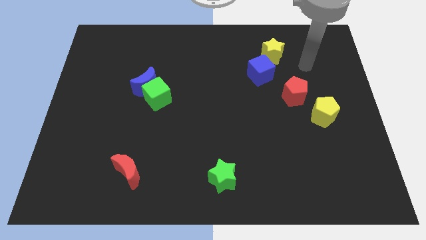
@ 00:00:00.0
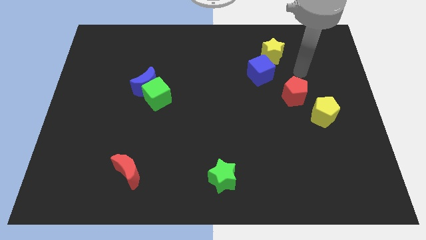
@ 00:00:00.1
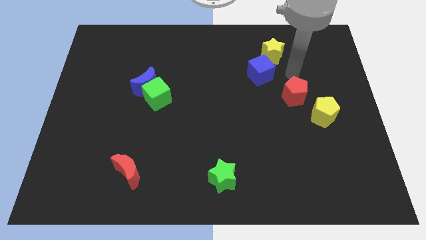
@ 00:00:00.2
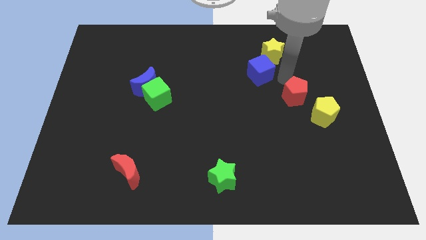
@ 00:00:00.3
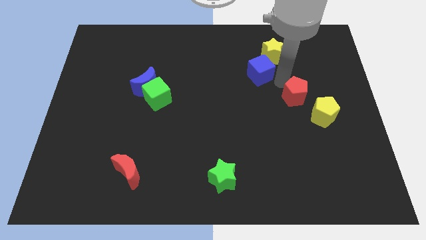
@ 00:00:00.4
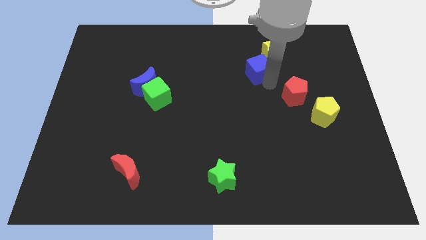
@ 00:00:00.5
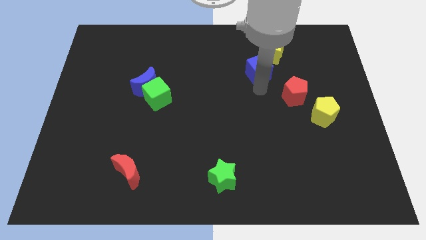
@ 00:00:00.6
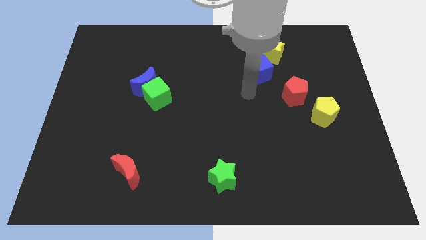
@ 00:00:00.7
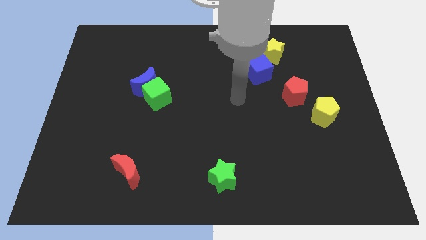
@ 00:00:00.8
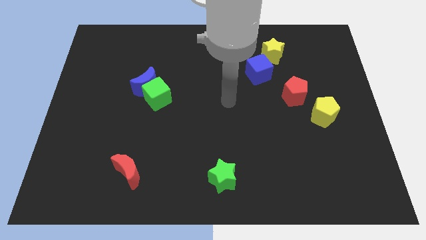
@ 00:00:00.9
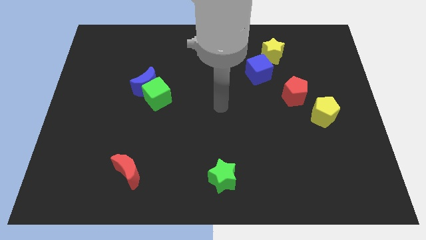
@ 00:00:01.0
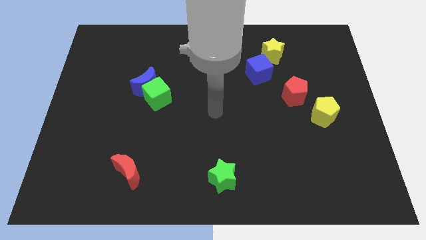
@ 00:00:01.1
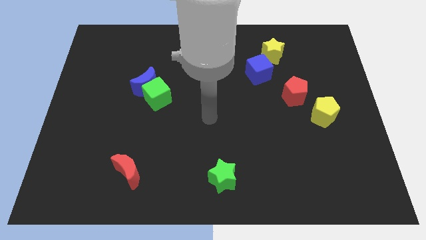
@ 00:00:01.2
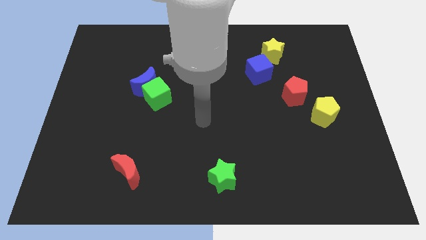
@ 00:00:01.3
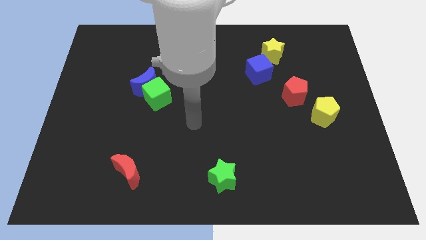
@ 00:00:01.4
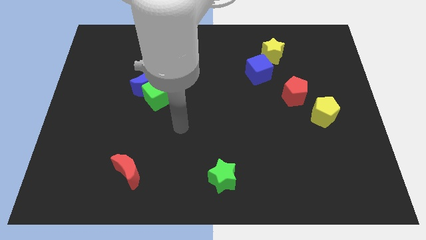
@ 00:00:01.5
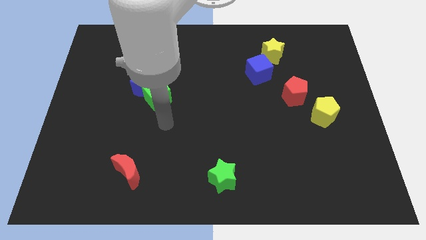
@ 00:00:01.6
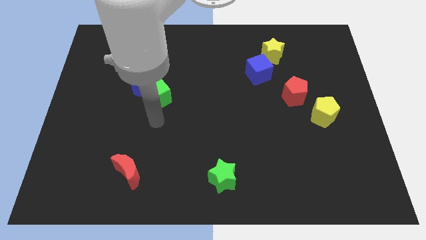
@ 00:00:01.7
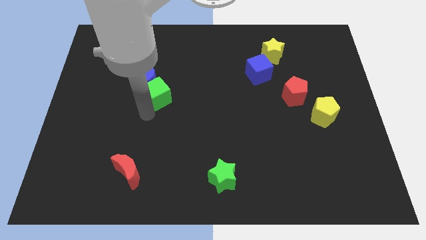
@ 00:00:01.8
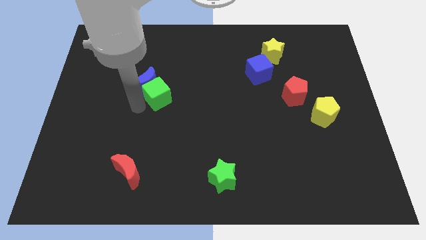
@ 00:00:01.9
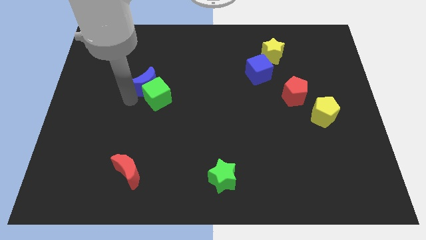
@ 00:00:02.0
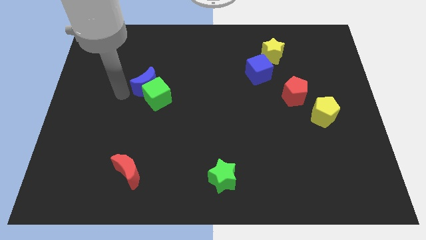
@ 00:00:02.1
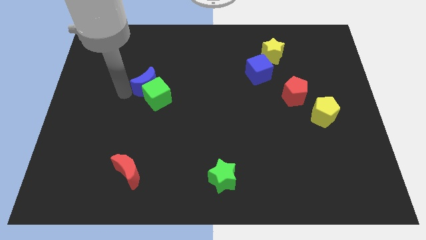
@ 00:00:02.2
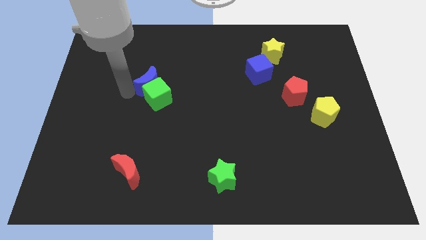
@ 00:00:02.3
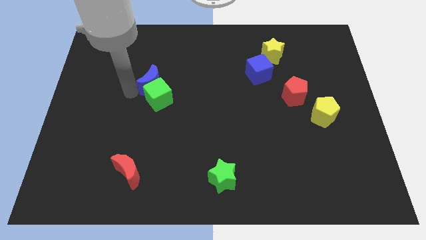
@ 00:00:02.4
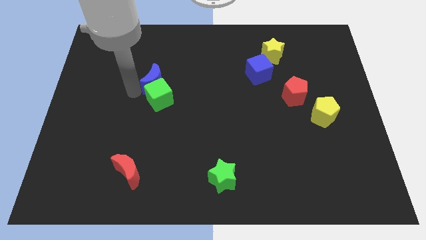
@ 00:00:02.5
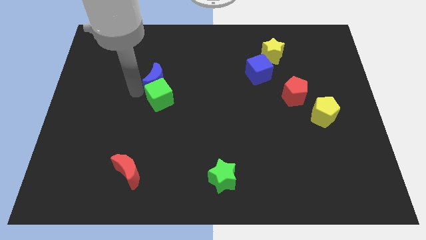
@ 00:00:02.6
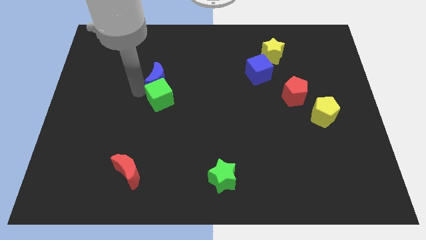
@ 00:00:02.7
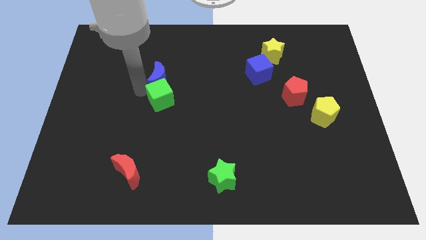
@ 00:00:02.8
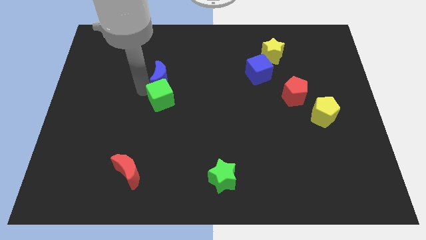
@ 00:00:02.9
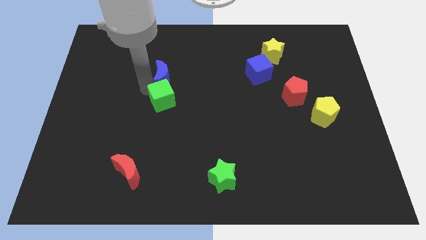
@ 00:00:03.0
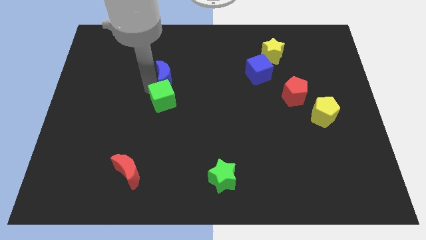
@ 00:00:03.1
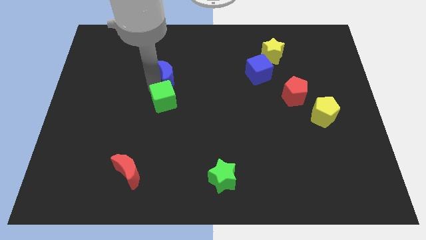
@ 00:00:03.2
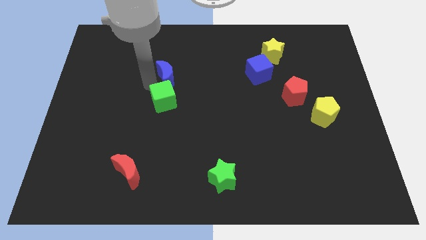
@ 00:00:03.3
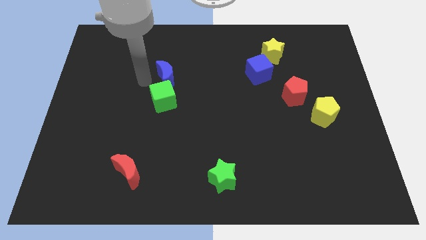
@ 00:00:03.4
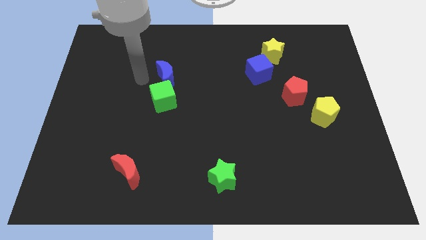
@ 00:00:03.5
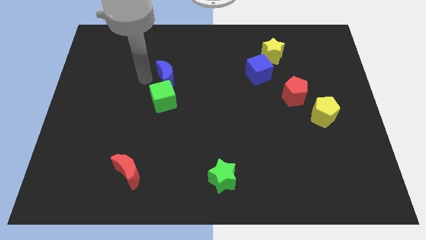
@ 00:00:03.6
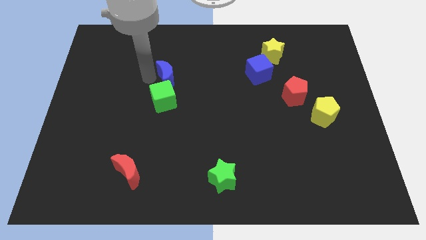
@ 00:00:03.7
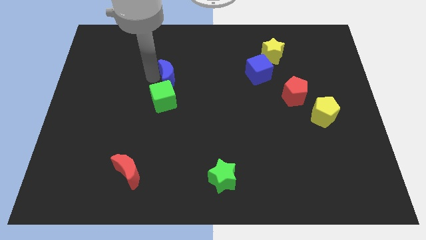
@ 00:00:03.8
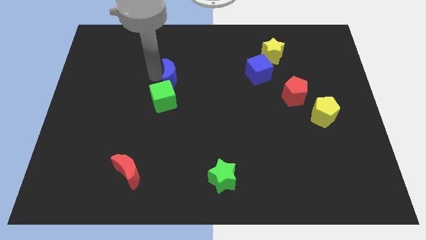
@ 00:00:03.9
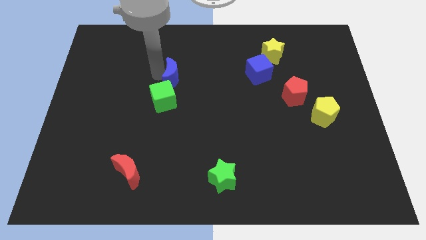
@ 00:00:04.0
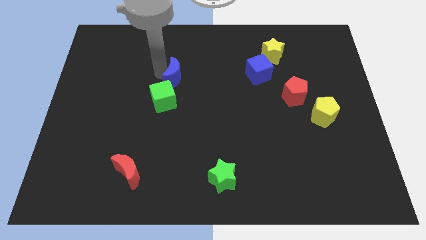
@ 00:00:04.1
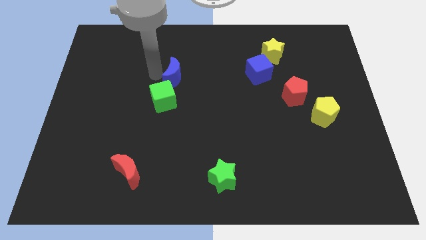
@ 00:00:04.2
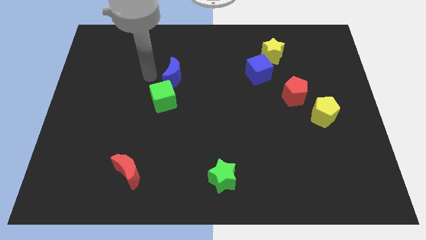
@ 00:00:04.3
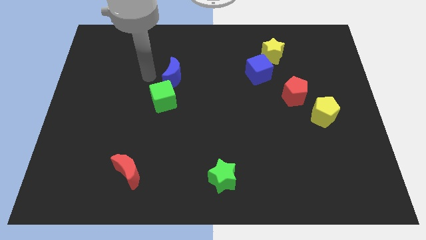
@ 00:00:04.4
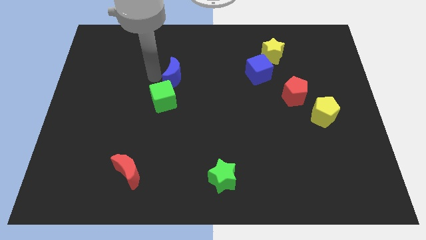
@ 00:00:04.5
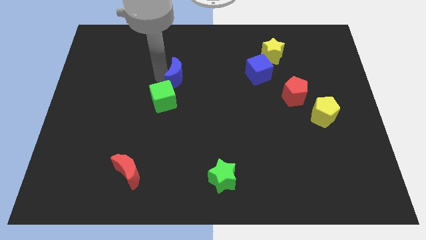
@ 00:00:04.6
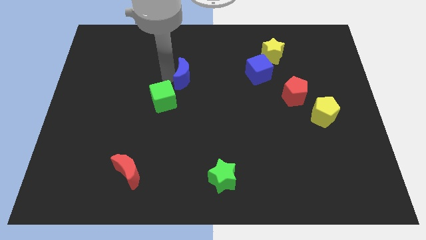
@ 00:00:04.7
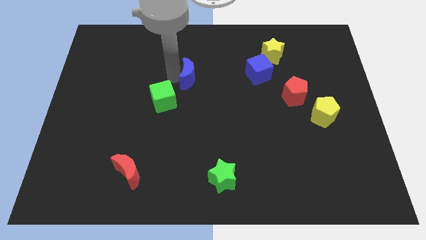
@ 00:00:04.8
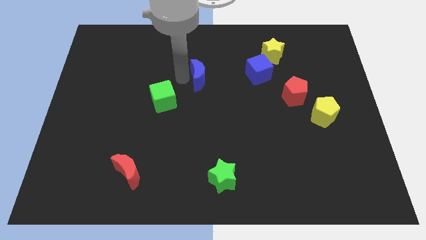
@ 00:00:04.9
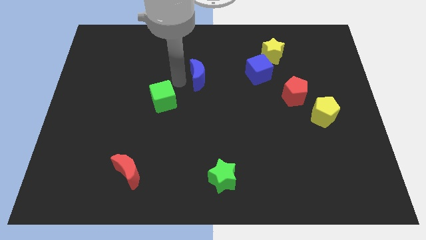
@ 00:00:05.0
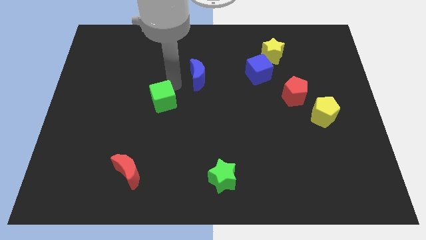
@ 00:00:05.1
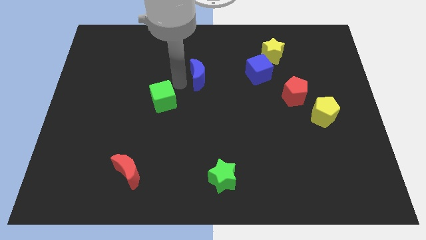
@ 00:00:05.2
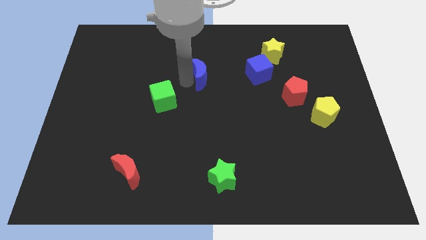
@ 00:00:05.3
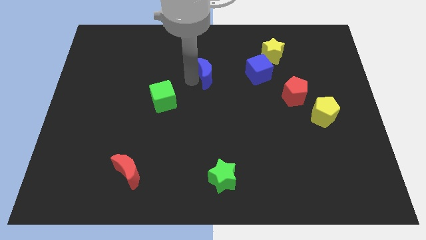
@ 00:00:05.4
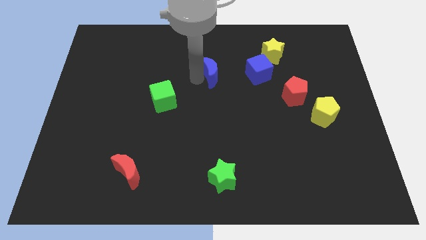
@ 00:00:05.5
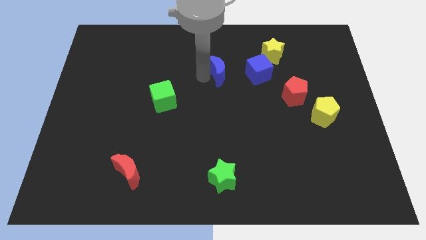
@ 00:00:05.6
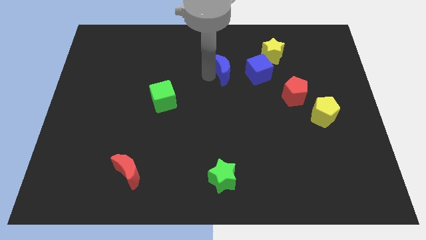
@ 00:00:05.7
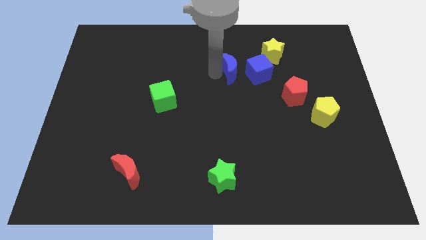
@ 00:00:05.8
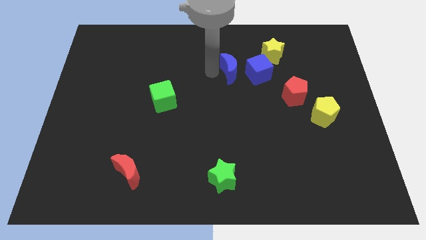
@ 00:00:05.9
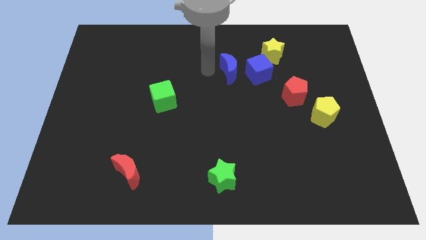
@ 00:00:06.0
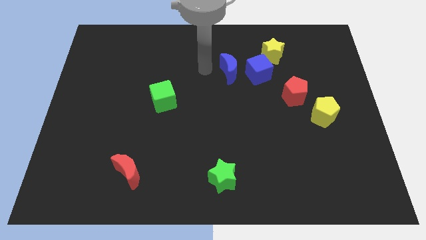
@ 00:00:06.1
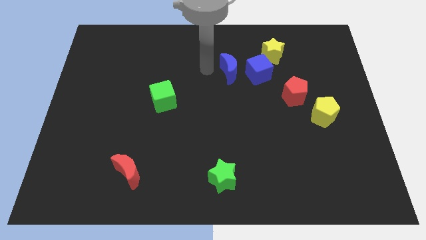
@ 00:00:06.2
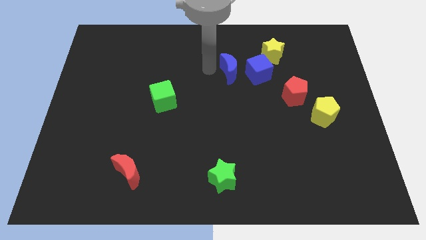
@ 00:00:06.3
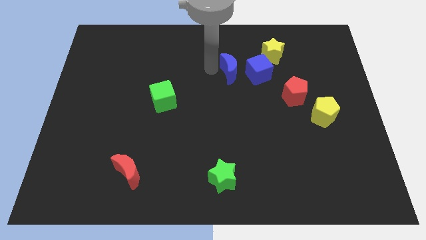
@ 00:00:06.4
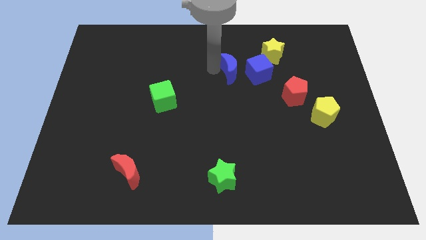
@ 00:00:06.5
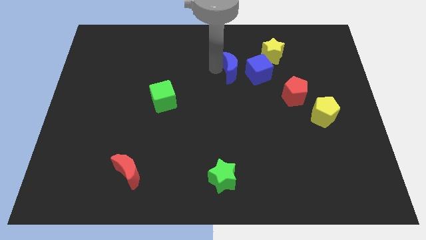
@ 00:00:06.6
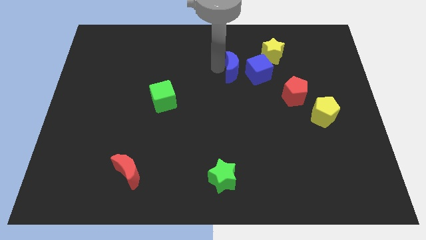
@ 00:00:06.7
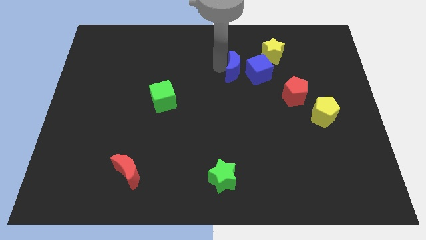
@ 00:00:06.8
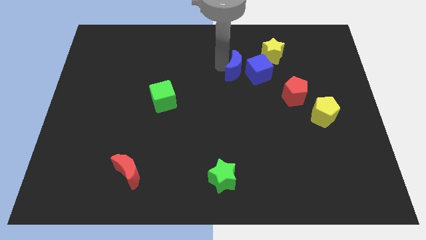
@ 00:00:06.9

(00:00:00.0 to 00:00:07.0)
put the blue moon close to the blue cube
